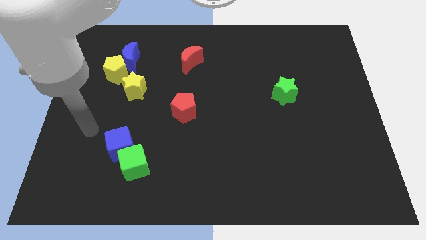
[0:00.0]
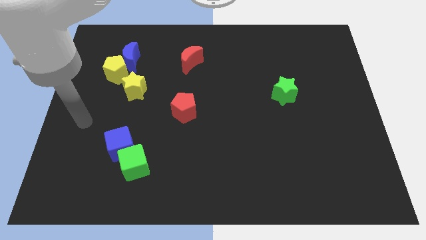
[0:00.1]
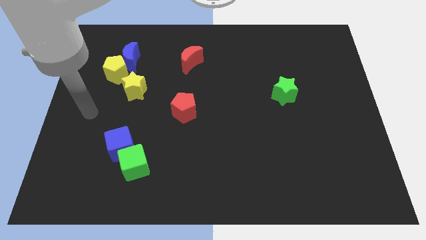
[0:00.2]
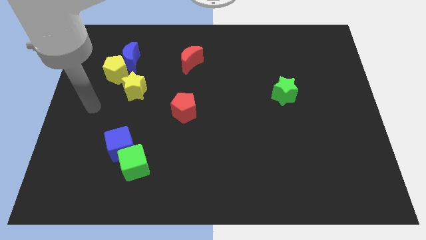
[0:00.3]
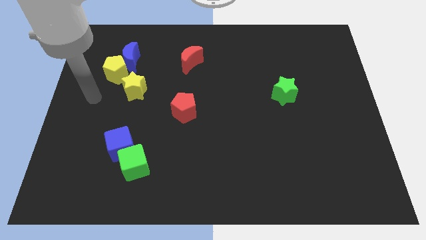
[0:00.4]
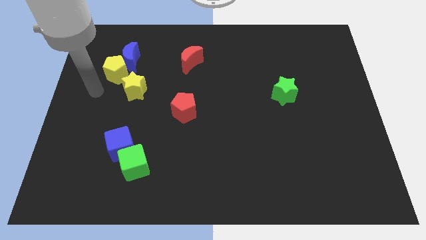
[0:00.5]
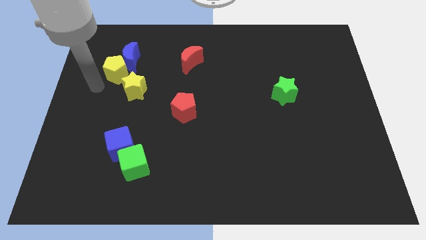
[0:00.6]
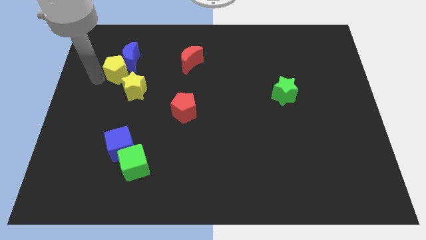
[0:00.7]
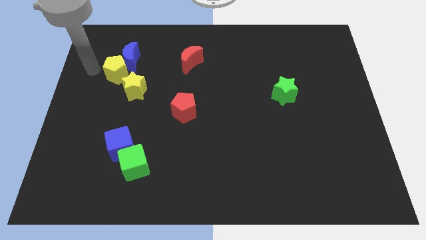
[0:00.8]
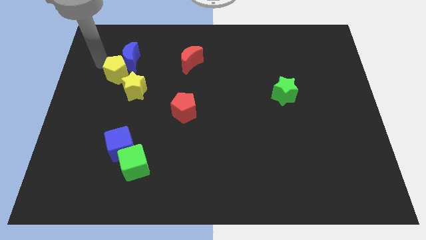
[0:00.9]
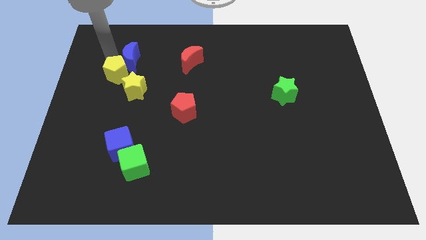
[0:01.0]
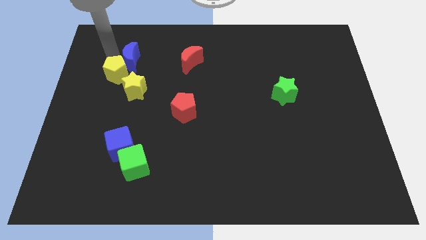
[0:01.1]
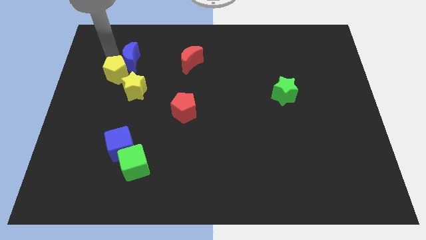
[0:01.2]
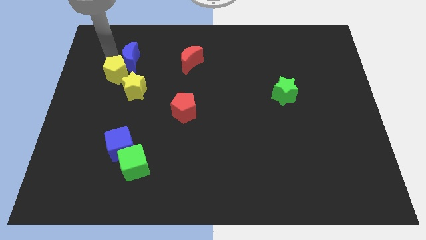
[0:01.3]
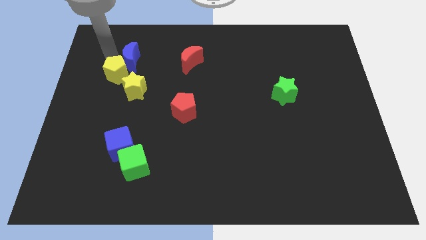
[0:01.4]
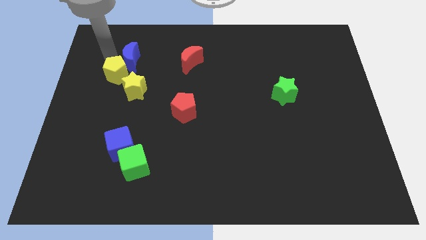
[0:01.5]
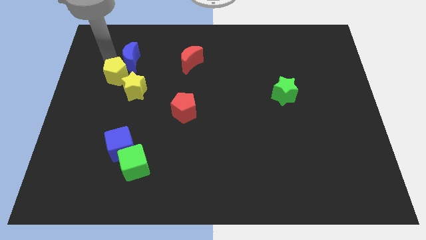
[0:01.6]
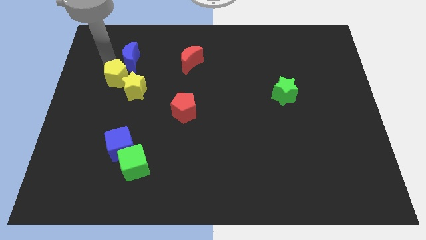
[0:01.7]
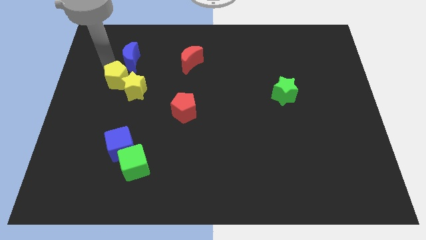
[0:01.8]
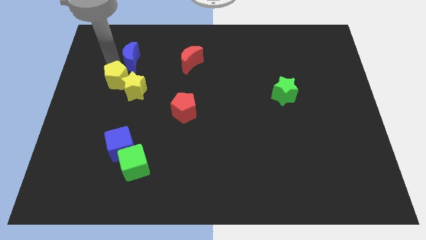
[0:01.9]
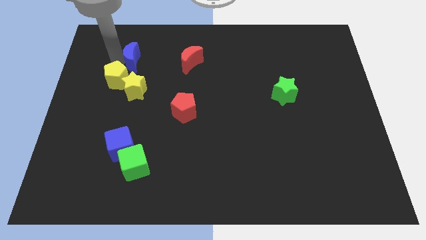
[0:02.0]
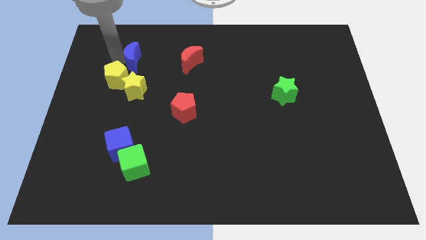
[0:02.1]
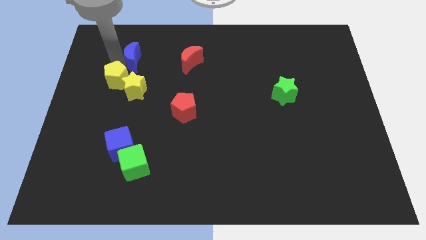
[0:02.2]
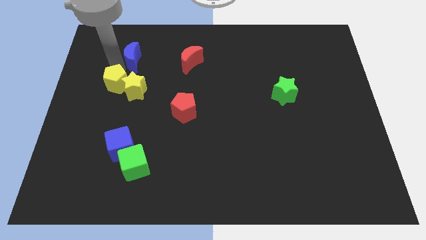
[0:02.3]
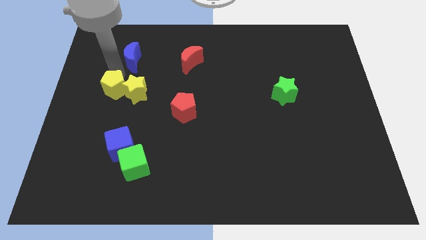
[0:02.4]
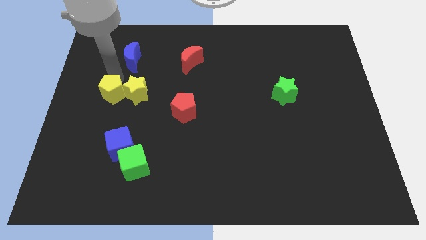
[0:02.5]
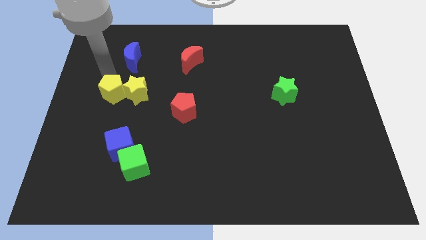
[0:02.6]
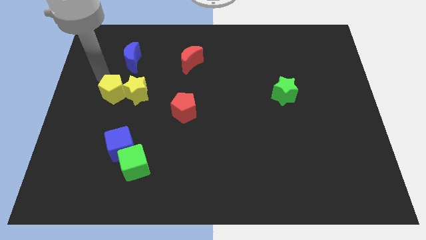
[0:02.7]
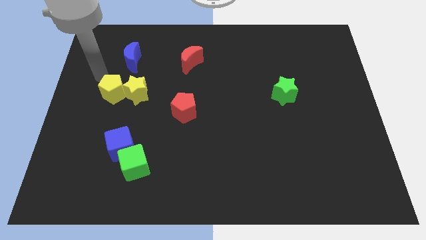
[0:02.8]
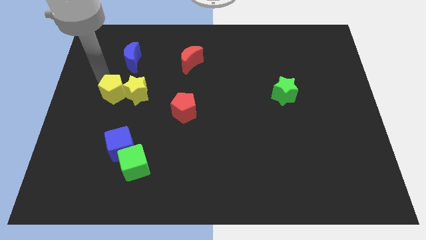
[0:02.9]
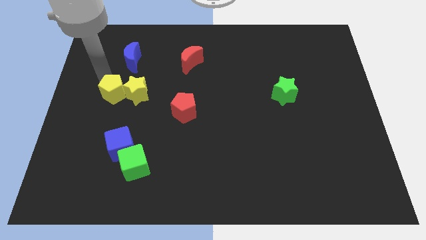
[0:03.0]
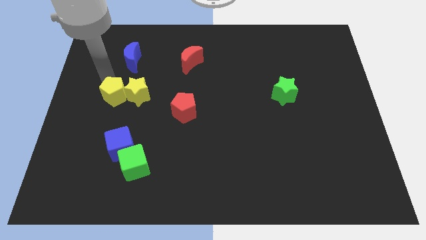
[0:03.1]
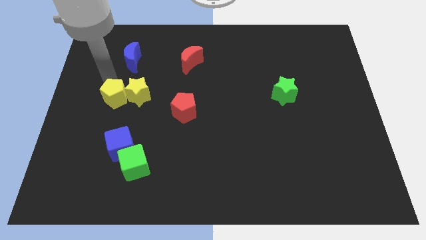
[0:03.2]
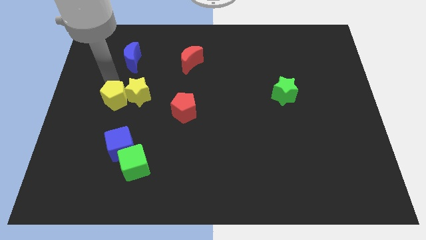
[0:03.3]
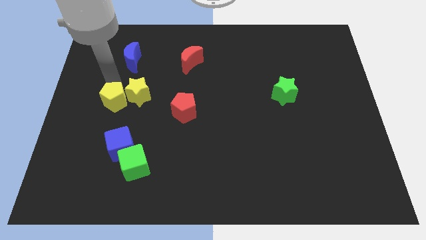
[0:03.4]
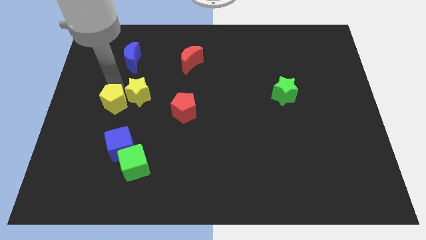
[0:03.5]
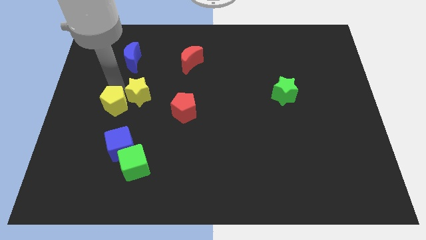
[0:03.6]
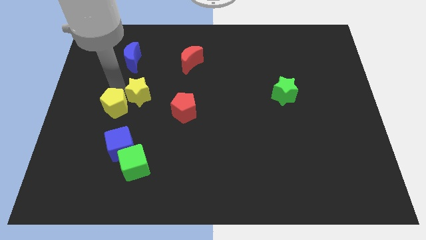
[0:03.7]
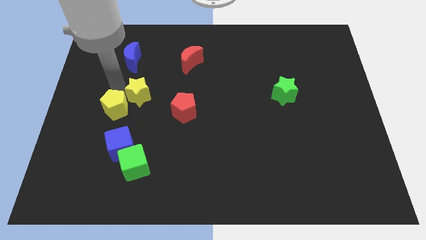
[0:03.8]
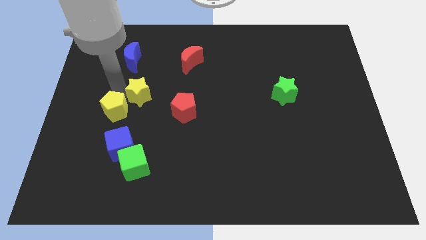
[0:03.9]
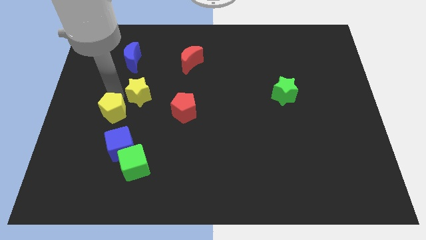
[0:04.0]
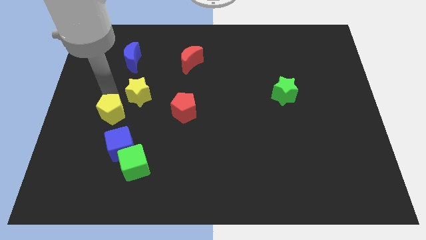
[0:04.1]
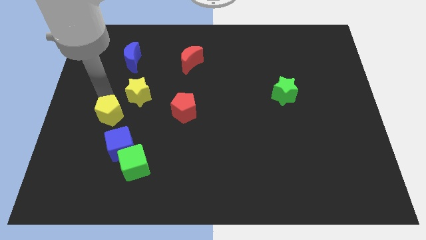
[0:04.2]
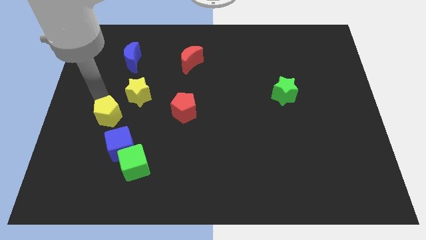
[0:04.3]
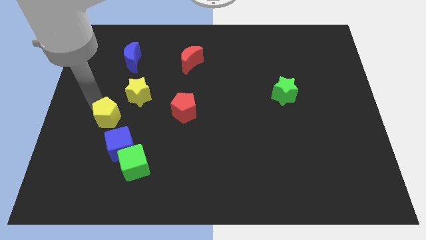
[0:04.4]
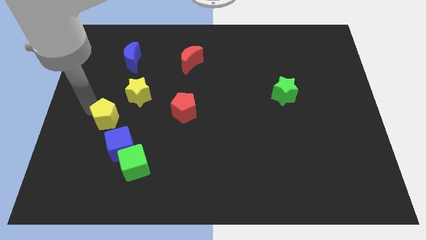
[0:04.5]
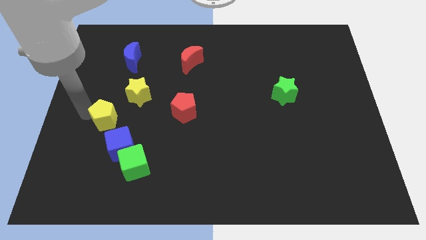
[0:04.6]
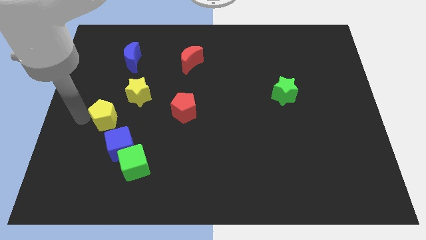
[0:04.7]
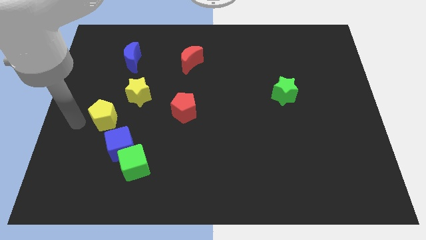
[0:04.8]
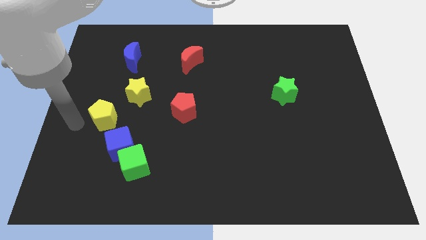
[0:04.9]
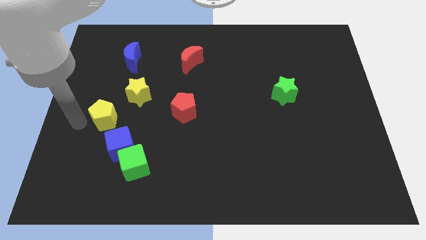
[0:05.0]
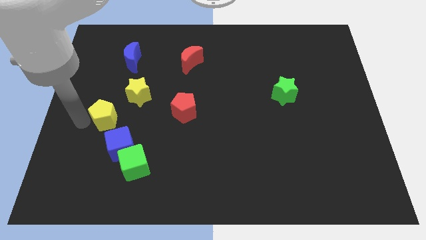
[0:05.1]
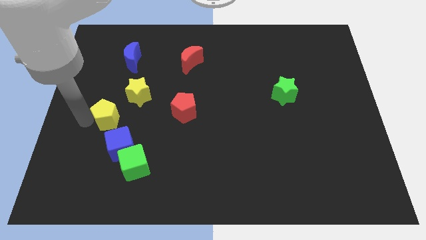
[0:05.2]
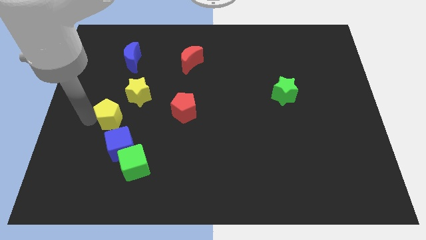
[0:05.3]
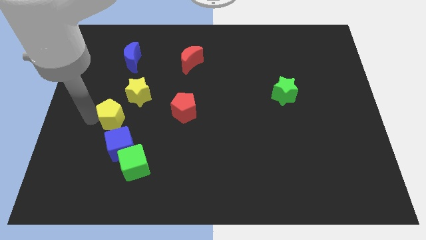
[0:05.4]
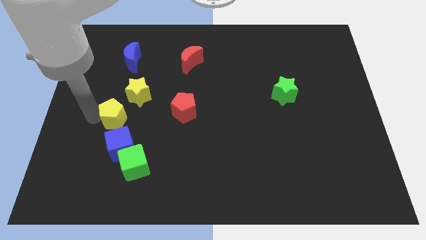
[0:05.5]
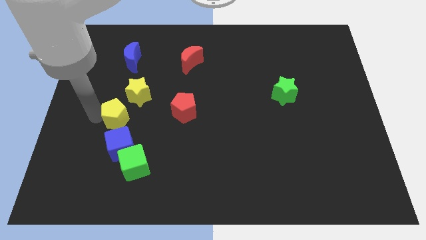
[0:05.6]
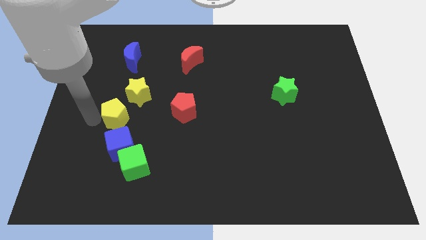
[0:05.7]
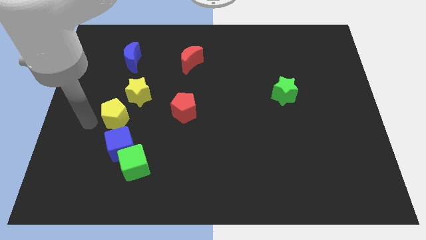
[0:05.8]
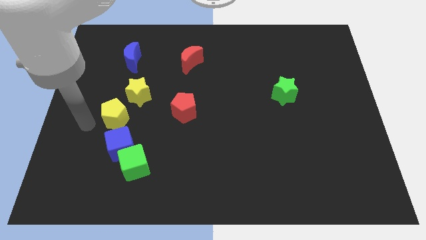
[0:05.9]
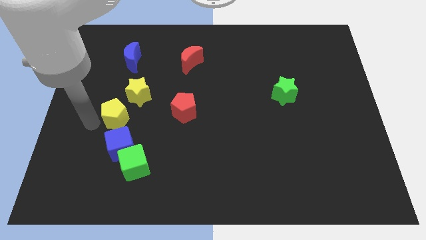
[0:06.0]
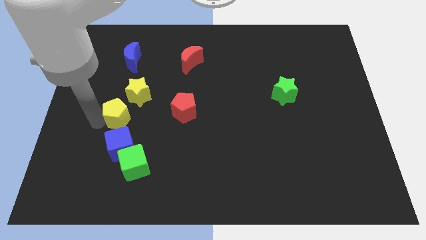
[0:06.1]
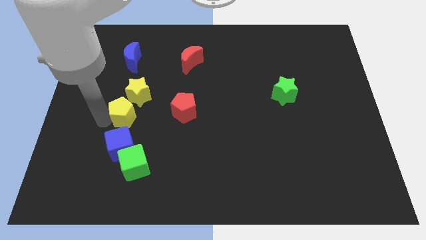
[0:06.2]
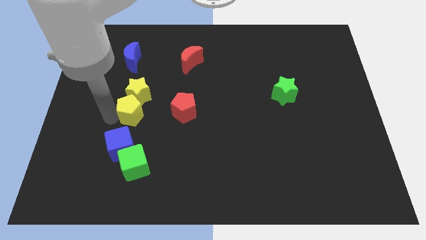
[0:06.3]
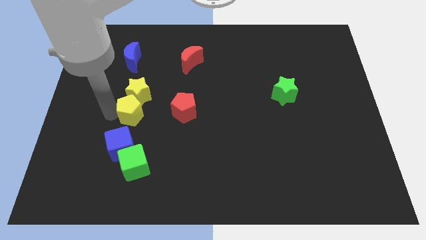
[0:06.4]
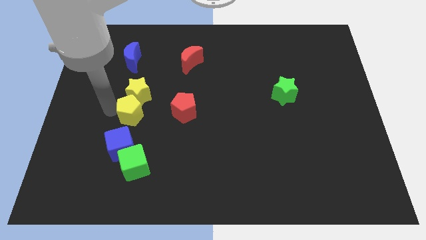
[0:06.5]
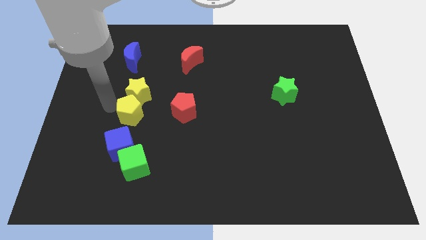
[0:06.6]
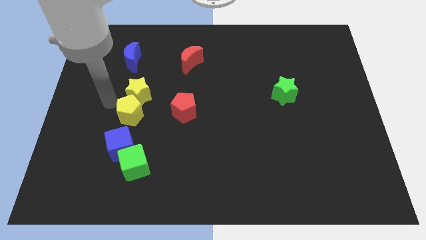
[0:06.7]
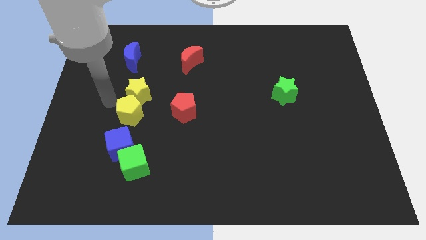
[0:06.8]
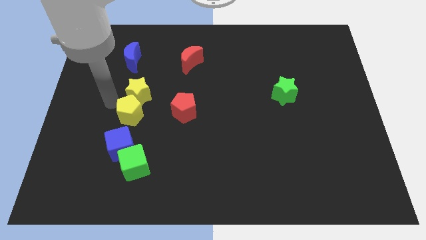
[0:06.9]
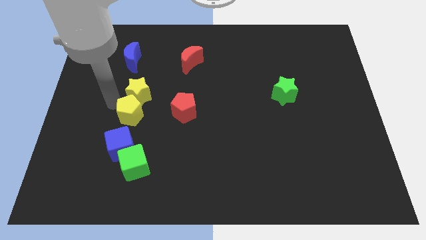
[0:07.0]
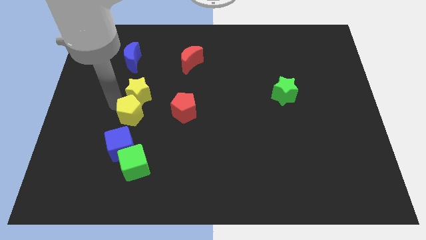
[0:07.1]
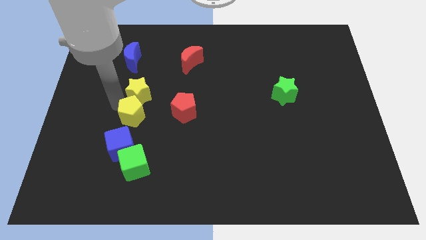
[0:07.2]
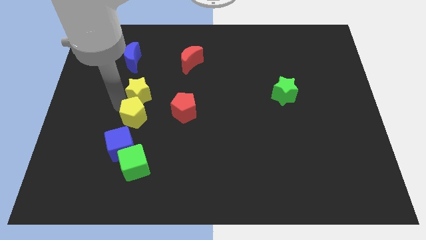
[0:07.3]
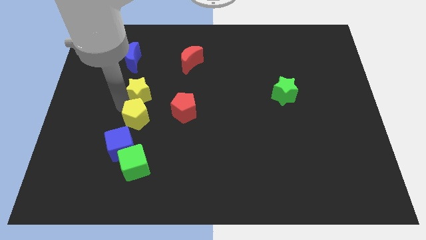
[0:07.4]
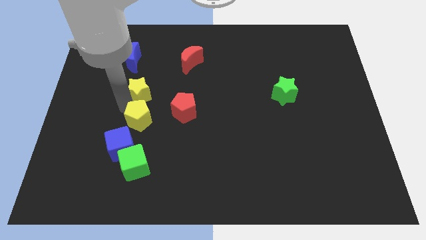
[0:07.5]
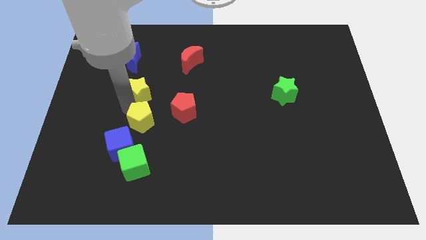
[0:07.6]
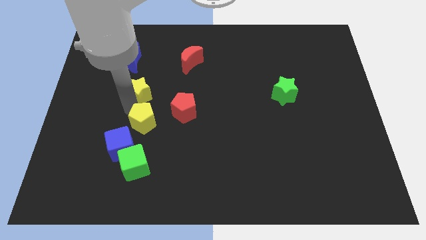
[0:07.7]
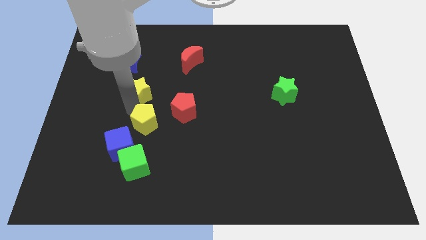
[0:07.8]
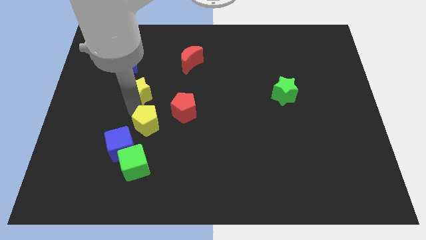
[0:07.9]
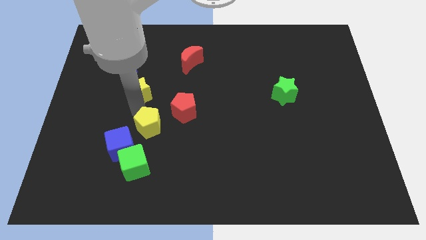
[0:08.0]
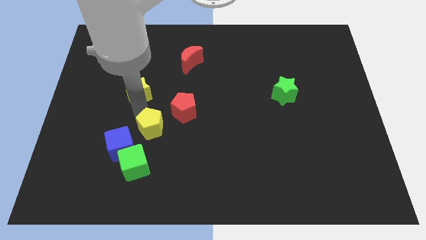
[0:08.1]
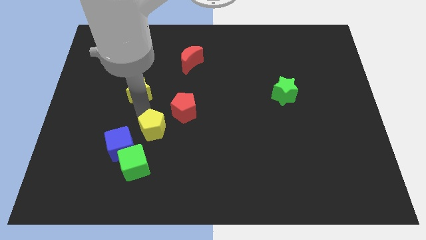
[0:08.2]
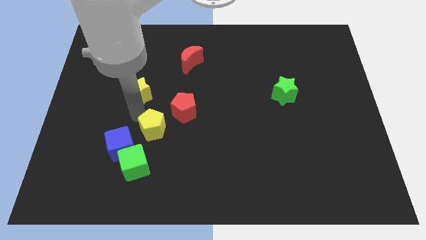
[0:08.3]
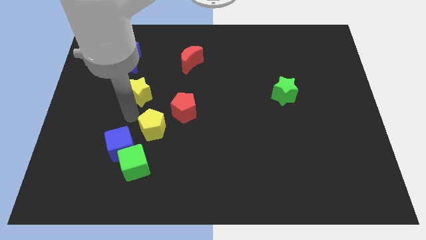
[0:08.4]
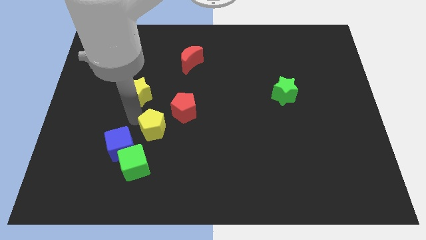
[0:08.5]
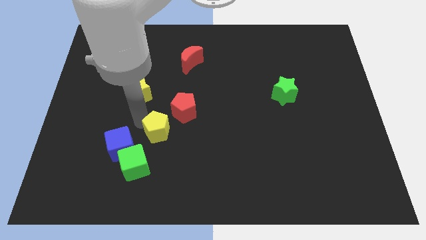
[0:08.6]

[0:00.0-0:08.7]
push the yellow pentagon downwards and right
